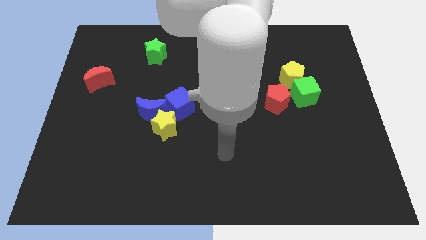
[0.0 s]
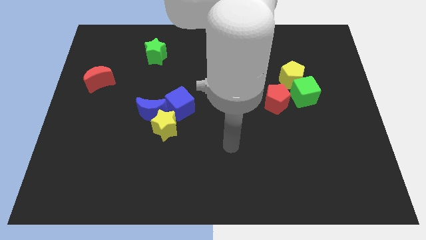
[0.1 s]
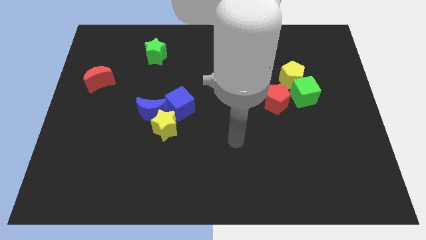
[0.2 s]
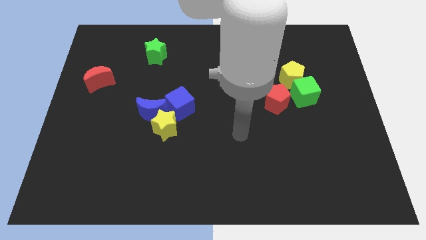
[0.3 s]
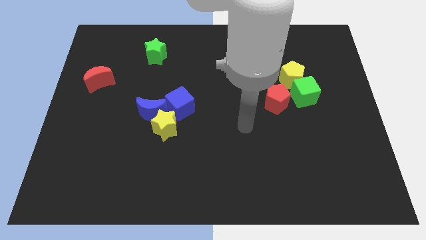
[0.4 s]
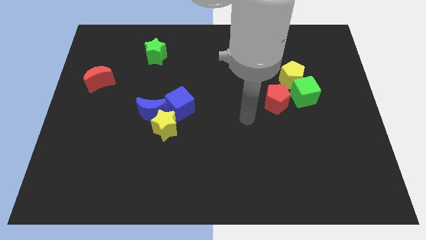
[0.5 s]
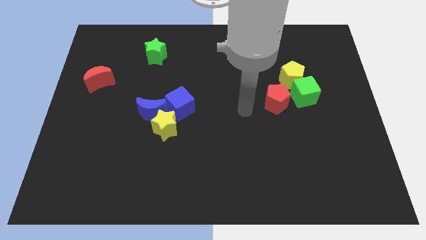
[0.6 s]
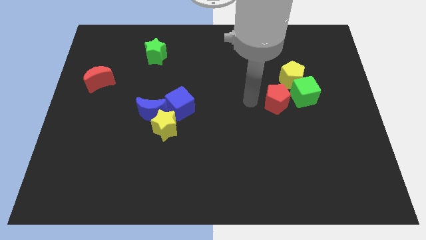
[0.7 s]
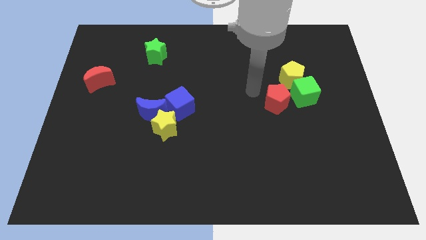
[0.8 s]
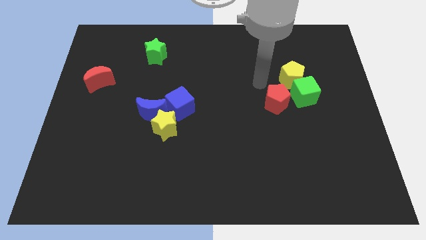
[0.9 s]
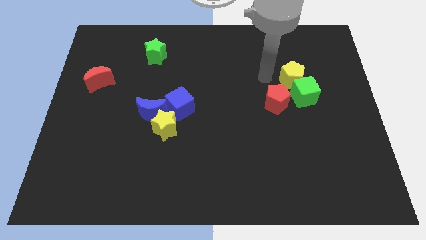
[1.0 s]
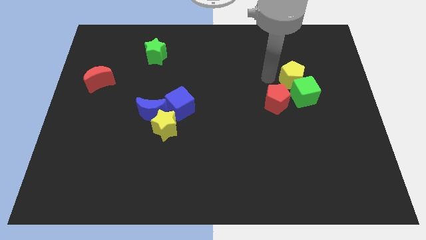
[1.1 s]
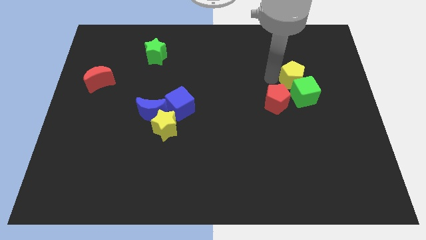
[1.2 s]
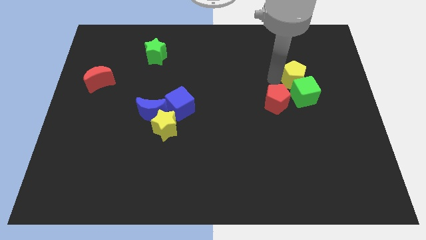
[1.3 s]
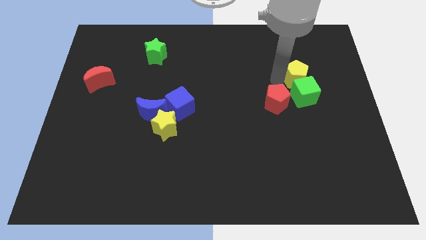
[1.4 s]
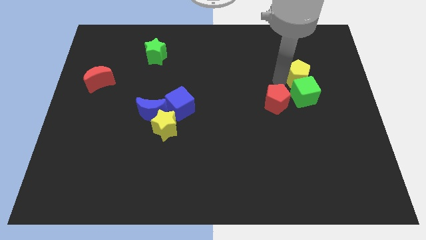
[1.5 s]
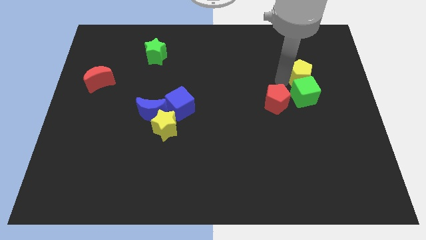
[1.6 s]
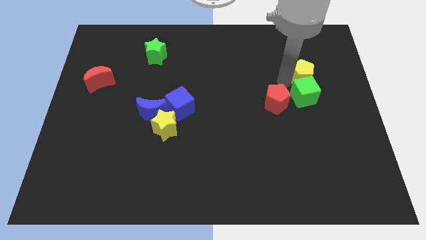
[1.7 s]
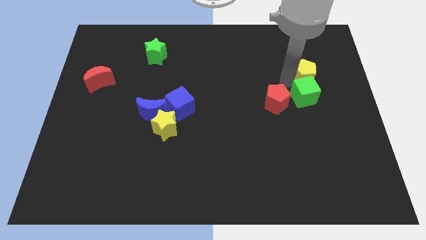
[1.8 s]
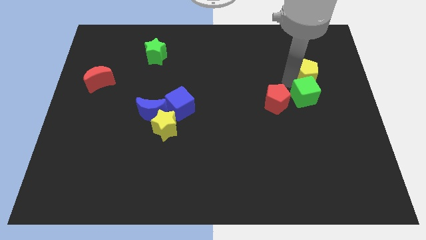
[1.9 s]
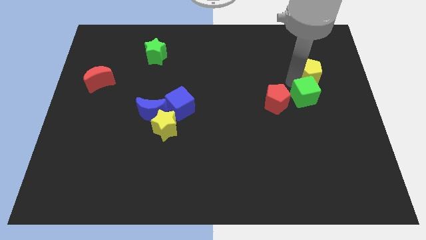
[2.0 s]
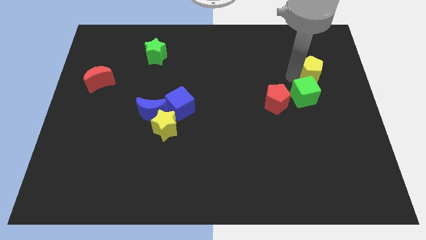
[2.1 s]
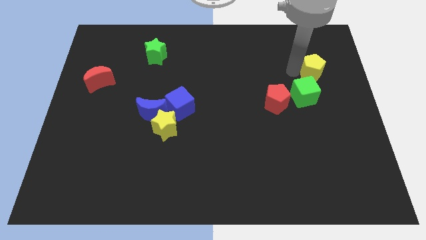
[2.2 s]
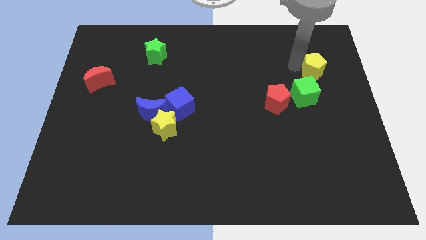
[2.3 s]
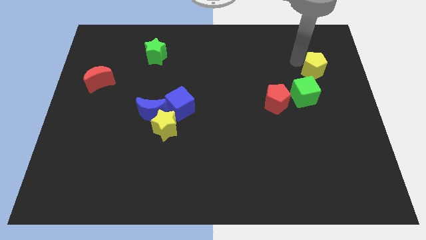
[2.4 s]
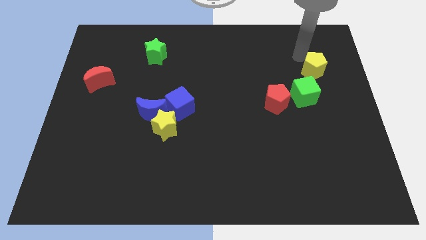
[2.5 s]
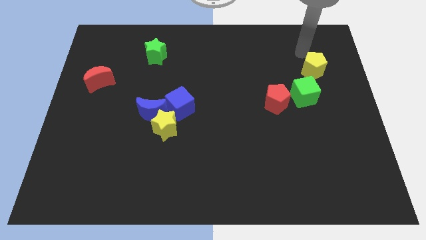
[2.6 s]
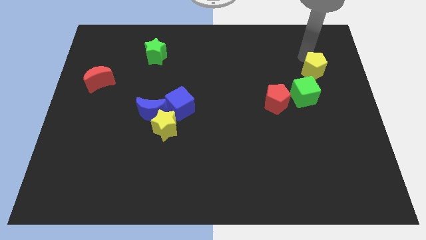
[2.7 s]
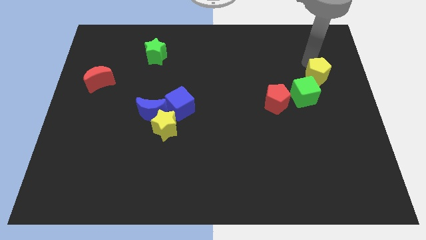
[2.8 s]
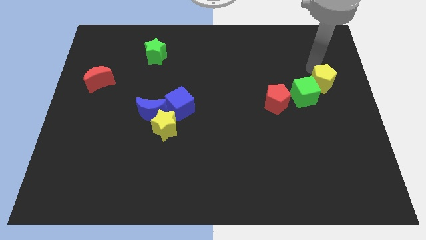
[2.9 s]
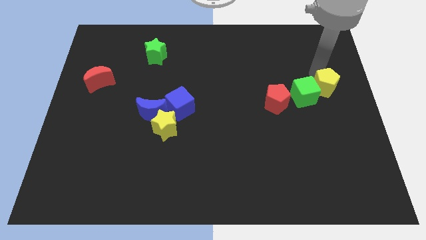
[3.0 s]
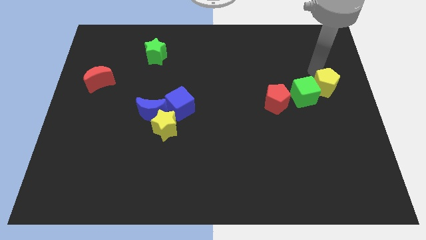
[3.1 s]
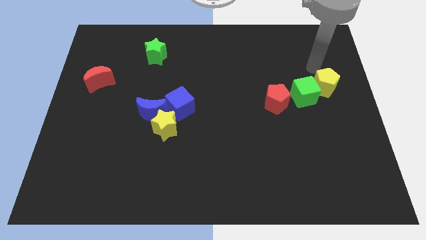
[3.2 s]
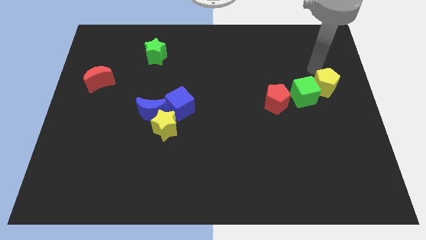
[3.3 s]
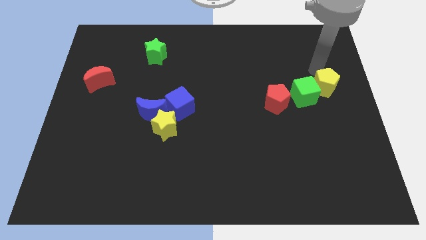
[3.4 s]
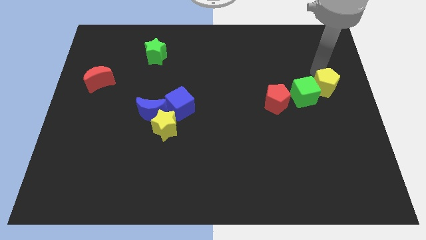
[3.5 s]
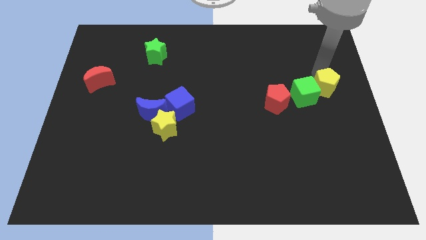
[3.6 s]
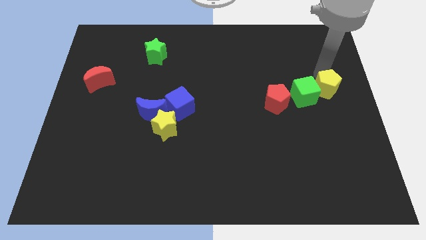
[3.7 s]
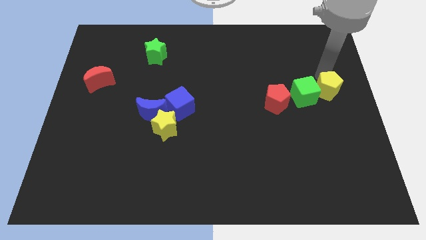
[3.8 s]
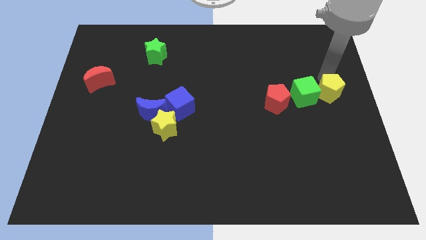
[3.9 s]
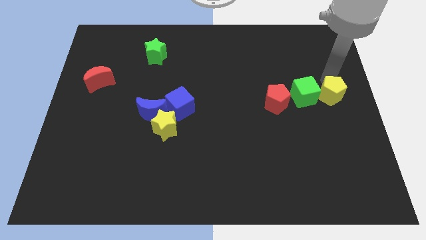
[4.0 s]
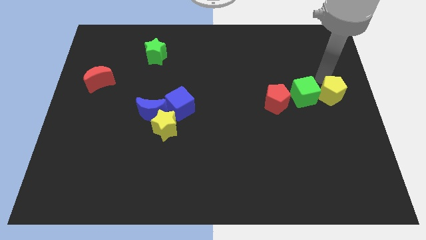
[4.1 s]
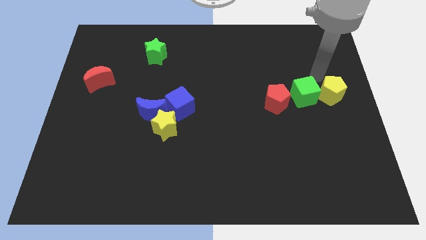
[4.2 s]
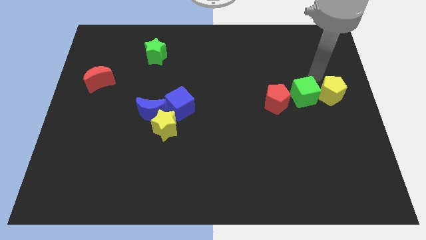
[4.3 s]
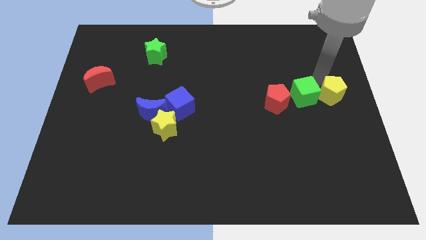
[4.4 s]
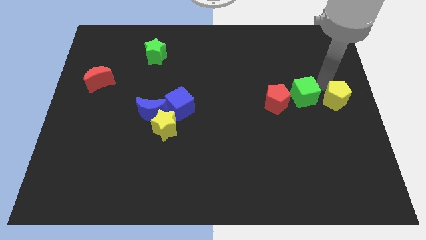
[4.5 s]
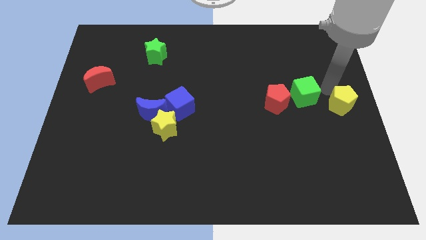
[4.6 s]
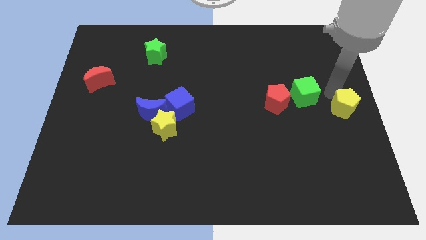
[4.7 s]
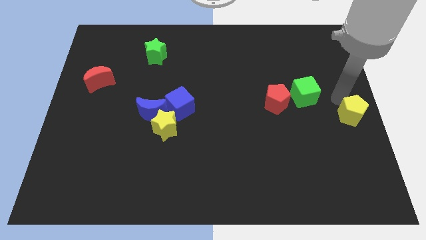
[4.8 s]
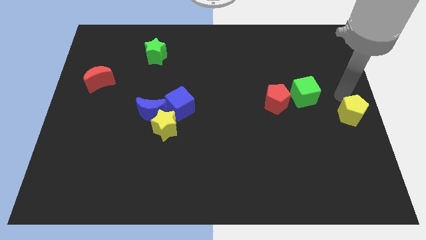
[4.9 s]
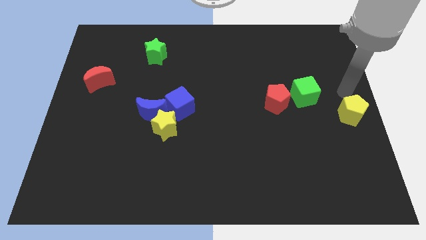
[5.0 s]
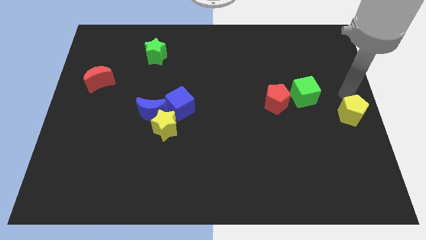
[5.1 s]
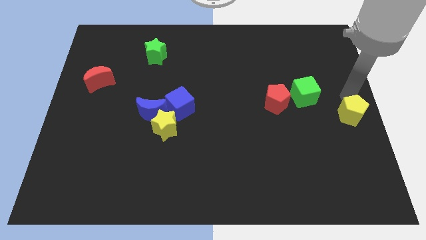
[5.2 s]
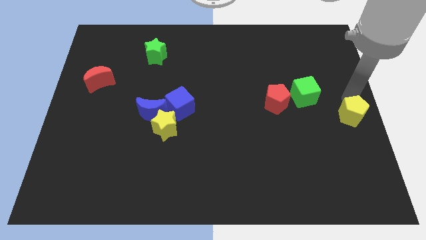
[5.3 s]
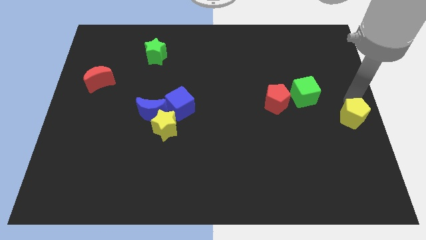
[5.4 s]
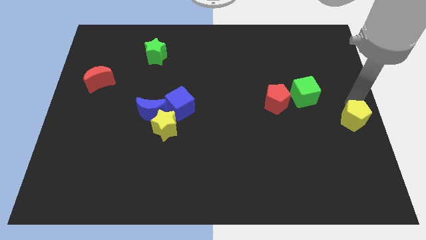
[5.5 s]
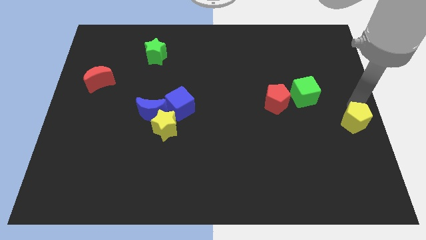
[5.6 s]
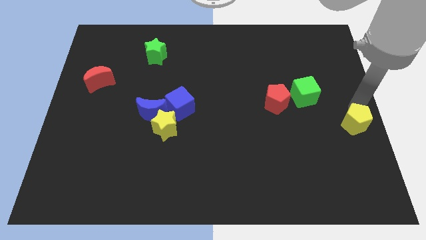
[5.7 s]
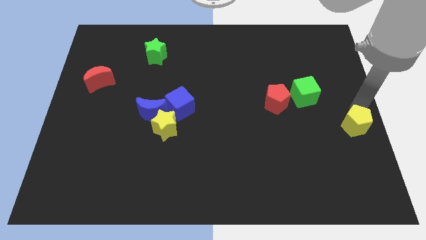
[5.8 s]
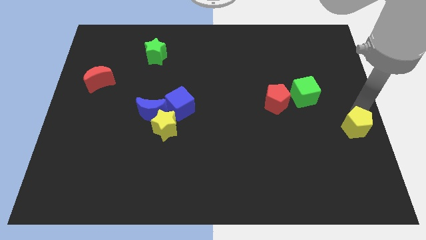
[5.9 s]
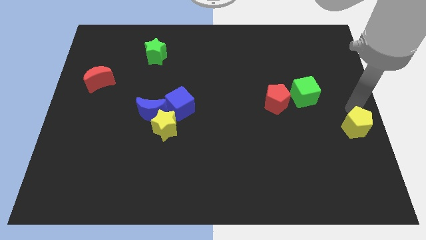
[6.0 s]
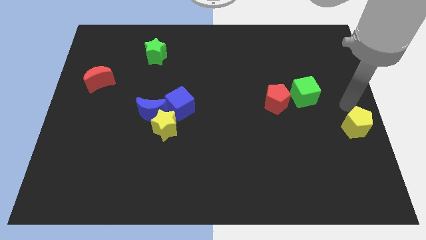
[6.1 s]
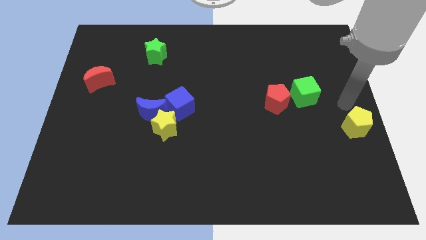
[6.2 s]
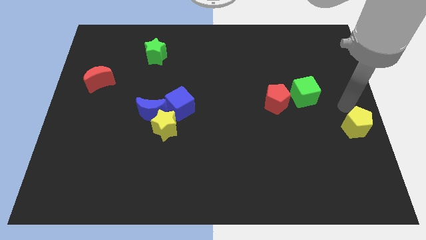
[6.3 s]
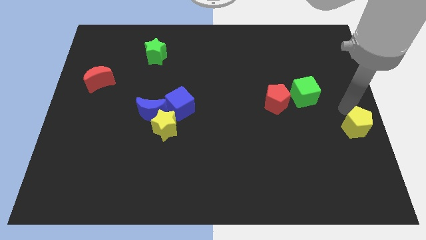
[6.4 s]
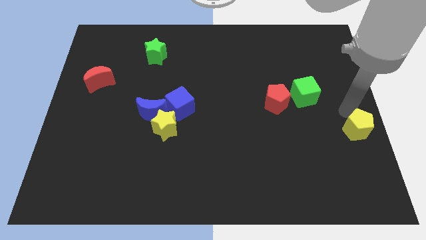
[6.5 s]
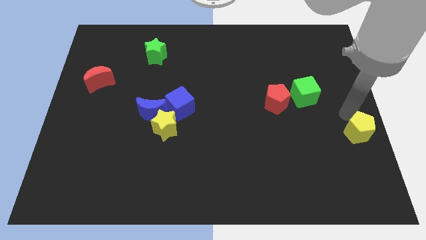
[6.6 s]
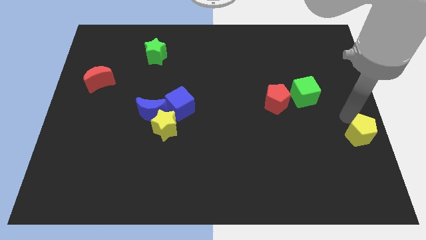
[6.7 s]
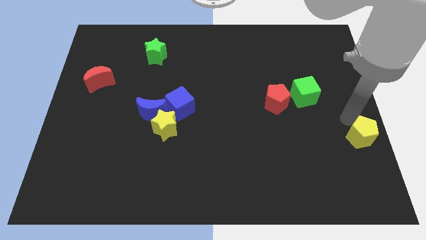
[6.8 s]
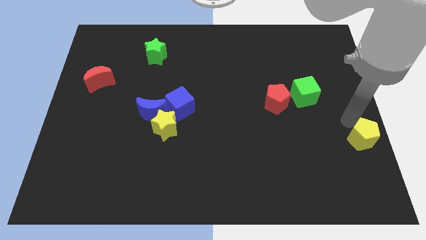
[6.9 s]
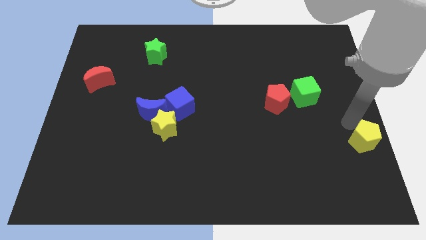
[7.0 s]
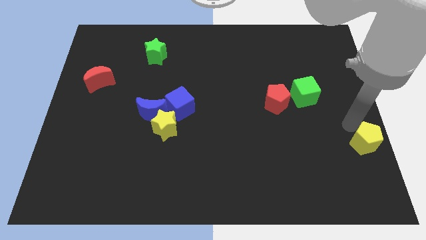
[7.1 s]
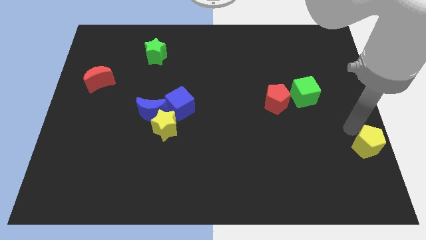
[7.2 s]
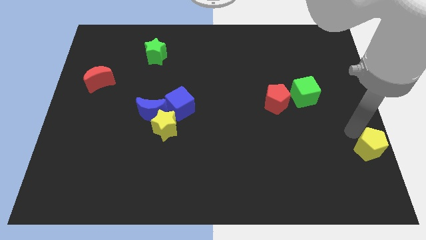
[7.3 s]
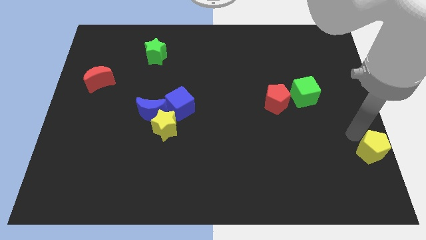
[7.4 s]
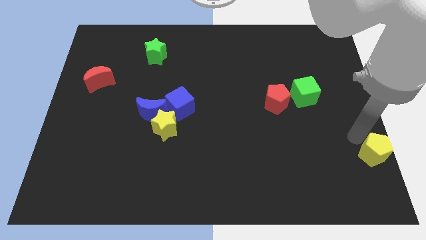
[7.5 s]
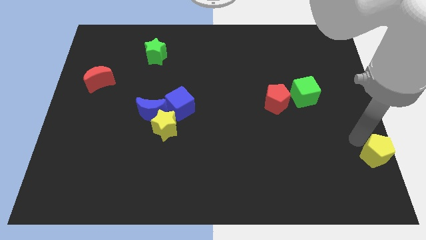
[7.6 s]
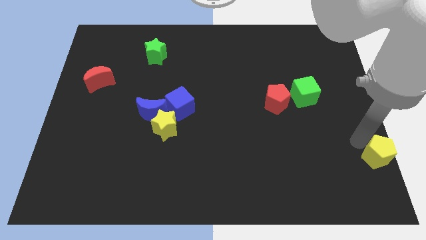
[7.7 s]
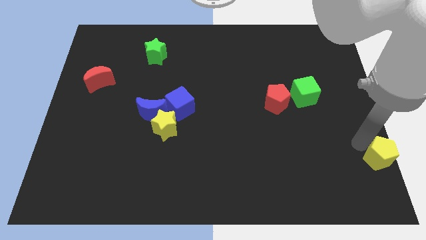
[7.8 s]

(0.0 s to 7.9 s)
move the yellow pentagon to the bottom right

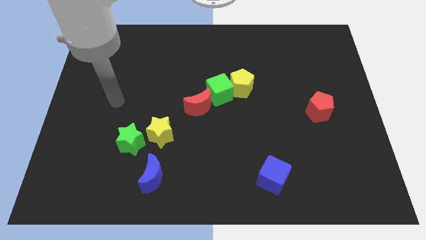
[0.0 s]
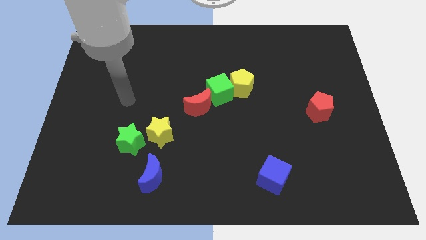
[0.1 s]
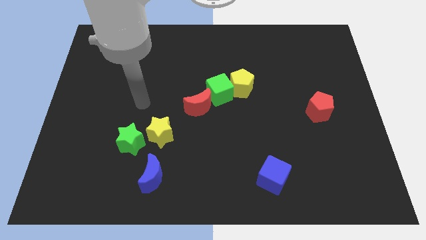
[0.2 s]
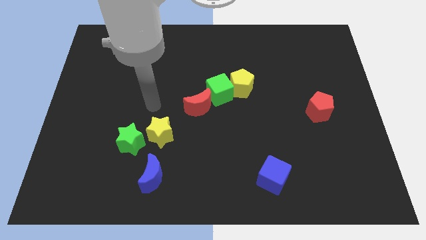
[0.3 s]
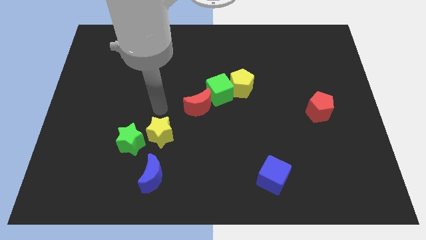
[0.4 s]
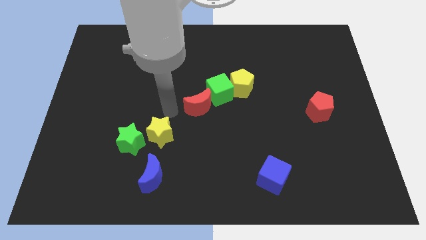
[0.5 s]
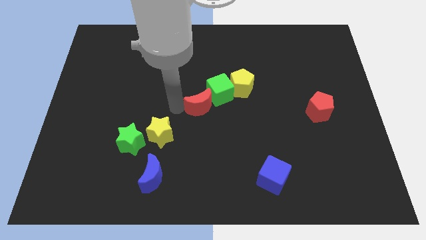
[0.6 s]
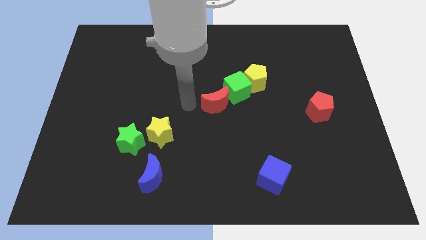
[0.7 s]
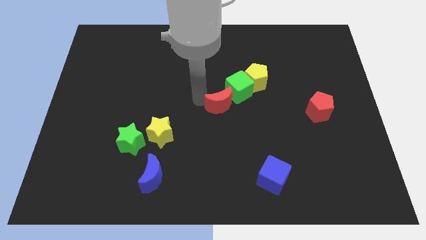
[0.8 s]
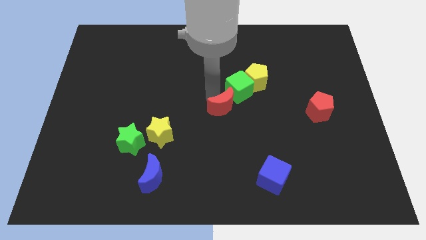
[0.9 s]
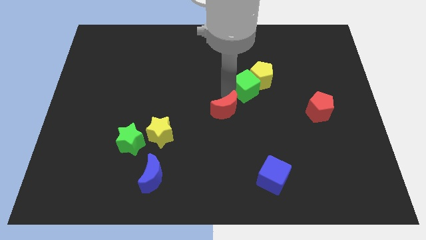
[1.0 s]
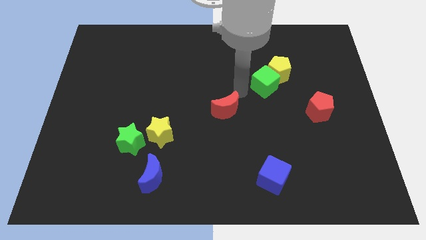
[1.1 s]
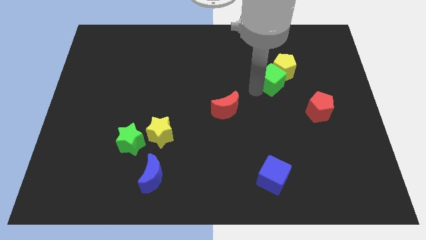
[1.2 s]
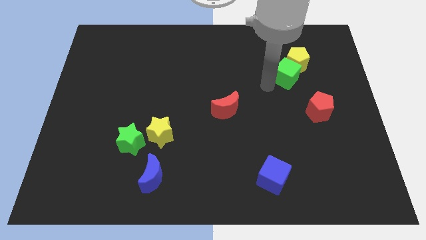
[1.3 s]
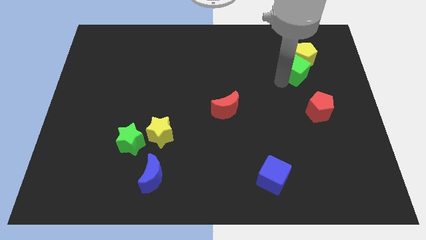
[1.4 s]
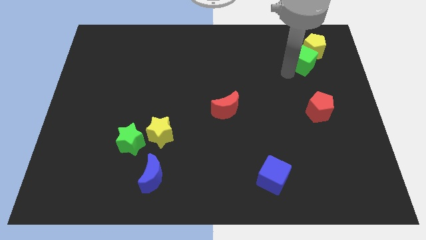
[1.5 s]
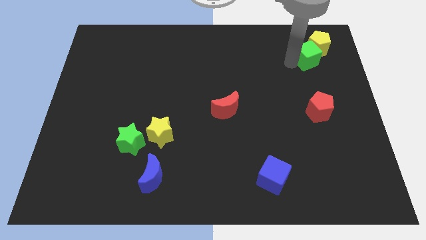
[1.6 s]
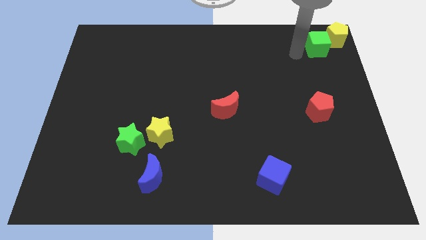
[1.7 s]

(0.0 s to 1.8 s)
move the yellow pentagon to the top right
